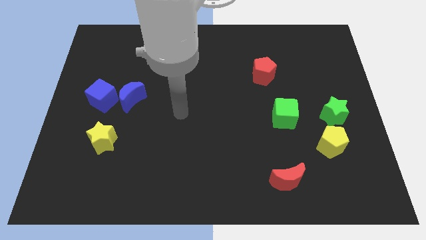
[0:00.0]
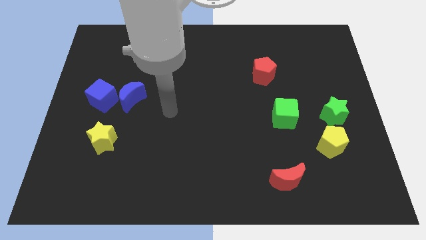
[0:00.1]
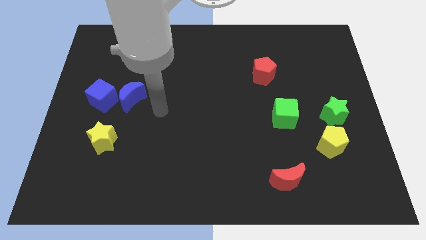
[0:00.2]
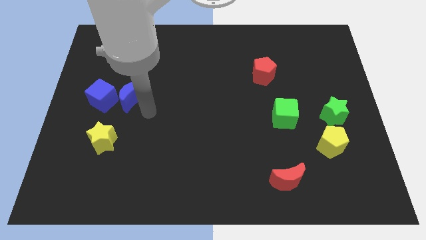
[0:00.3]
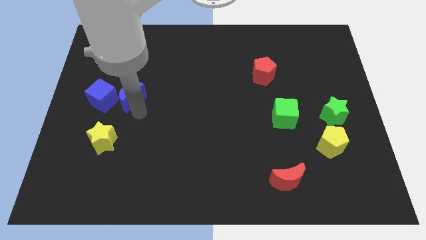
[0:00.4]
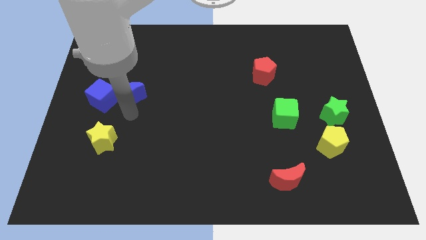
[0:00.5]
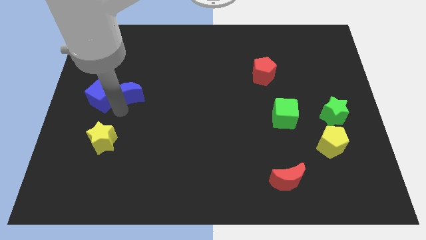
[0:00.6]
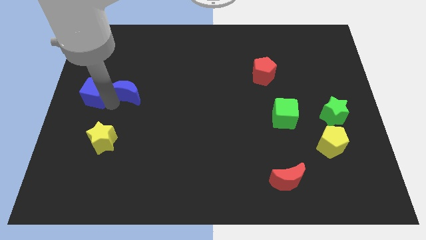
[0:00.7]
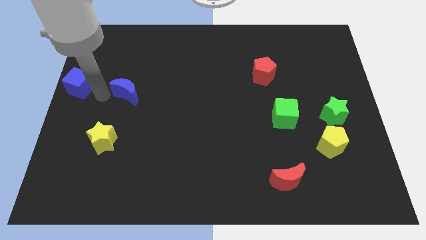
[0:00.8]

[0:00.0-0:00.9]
move the blue moon away from the blue cube

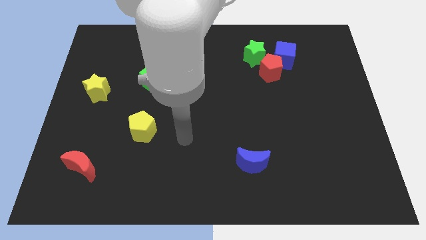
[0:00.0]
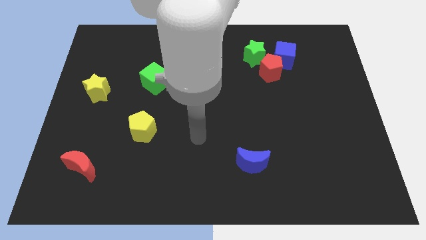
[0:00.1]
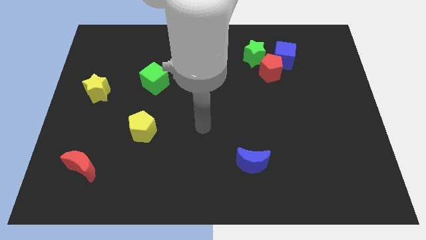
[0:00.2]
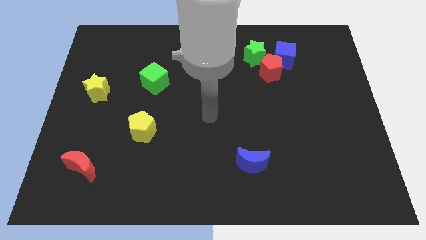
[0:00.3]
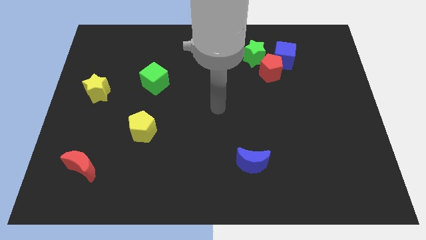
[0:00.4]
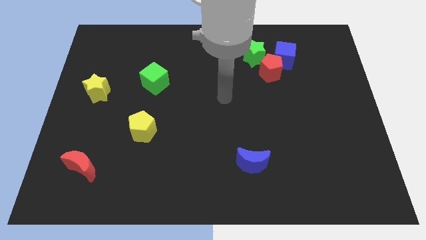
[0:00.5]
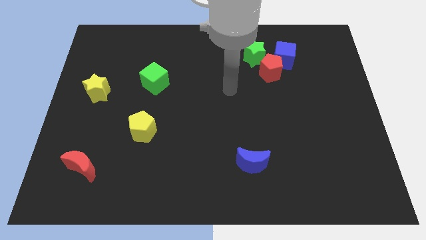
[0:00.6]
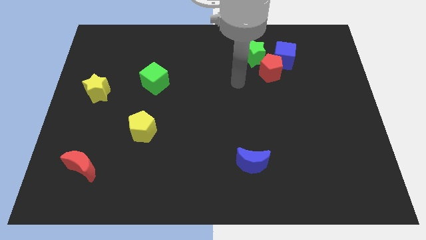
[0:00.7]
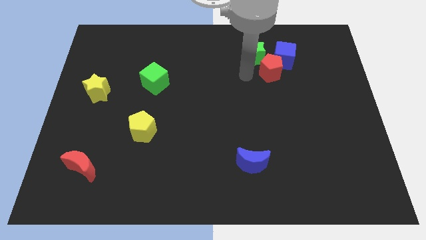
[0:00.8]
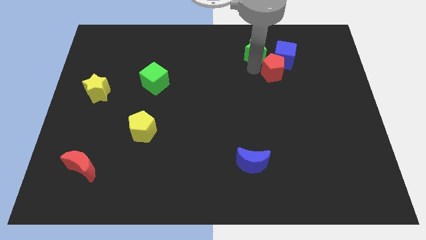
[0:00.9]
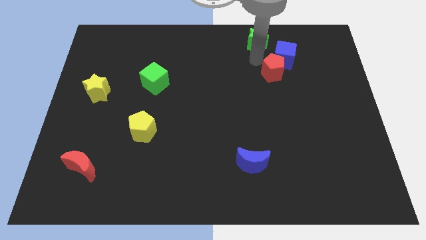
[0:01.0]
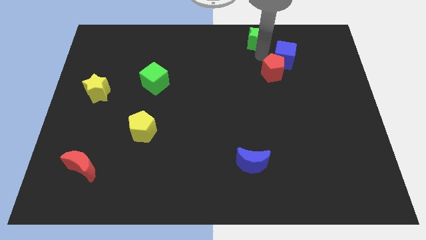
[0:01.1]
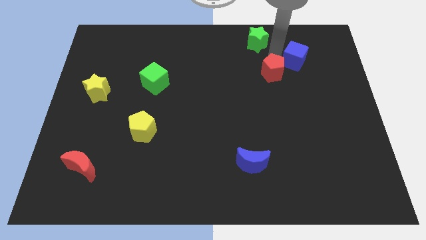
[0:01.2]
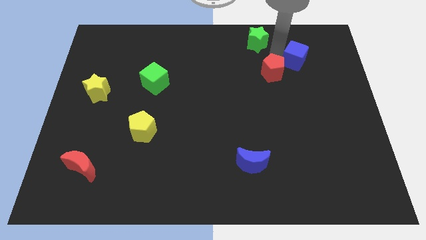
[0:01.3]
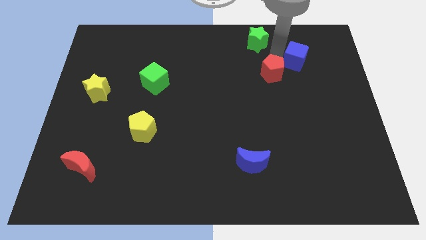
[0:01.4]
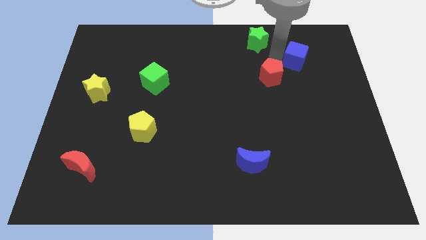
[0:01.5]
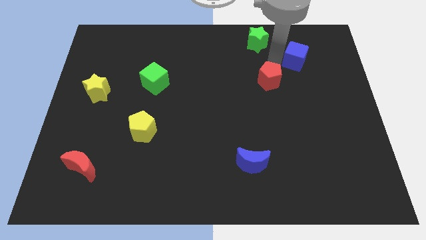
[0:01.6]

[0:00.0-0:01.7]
move the red pentagon away from the blue cube and green star

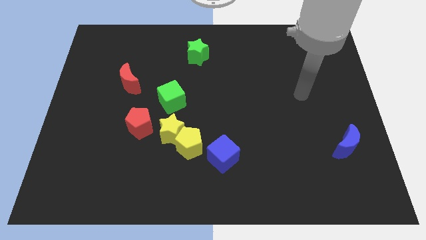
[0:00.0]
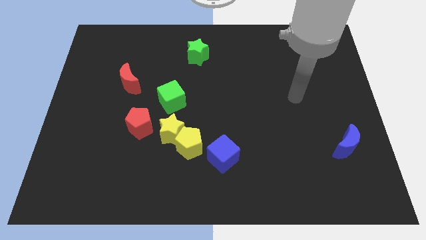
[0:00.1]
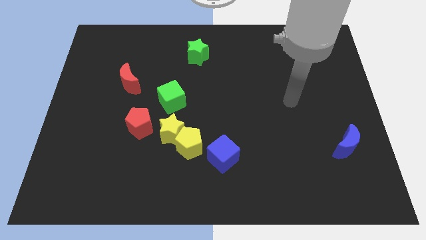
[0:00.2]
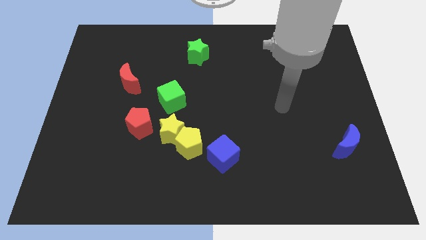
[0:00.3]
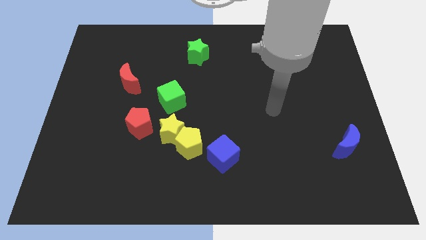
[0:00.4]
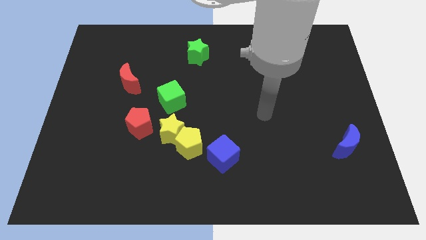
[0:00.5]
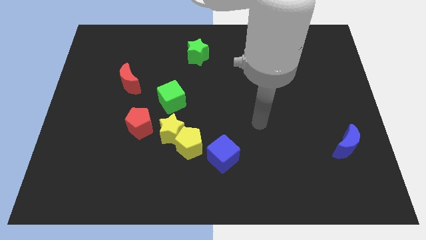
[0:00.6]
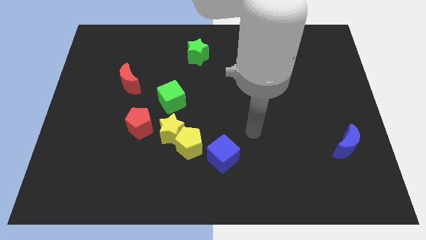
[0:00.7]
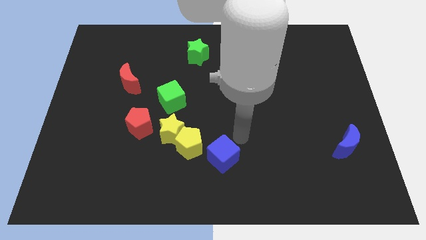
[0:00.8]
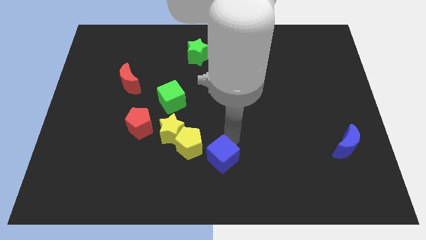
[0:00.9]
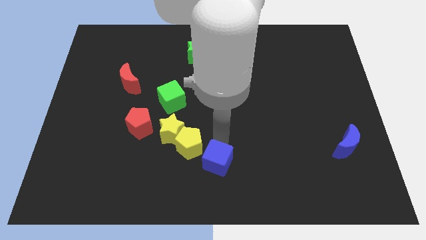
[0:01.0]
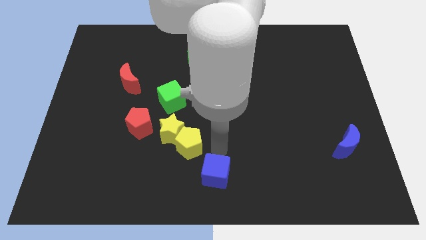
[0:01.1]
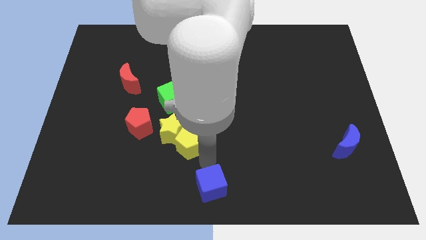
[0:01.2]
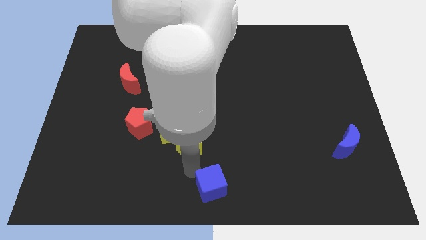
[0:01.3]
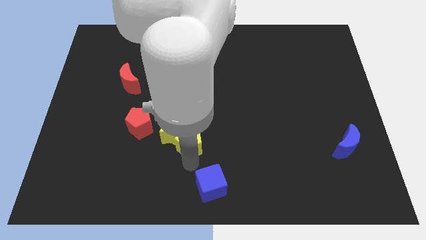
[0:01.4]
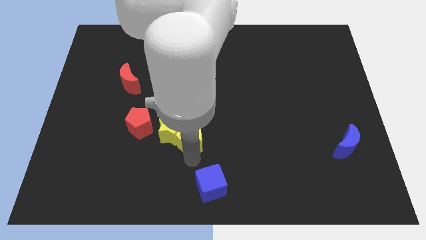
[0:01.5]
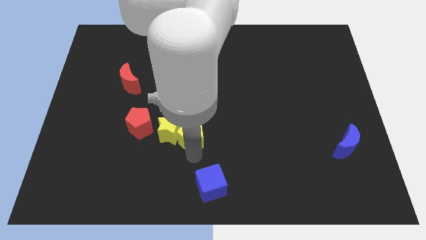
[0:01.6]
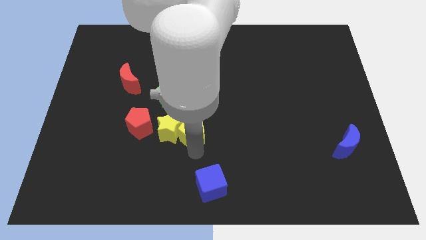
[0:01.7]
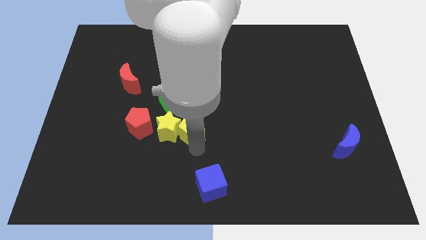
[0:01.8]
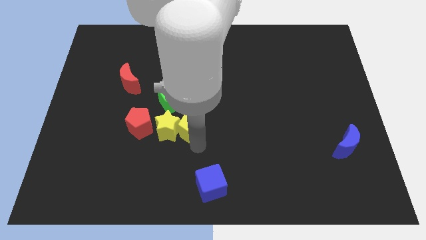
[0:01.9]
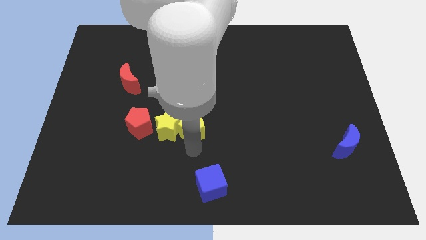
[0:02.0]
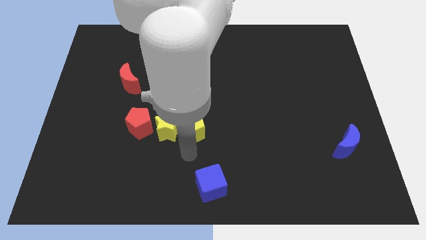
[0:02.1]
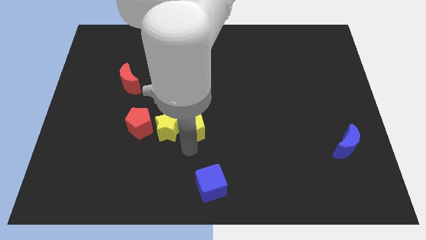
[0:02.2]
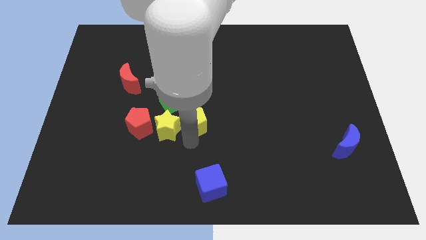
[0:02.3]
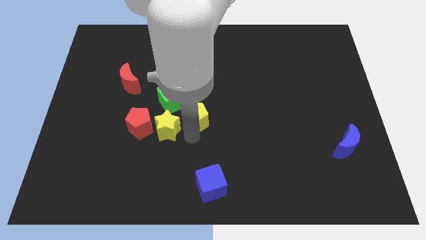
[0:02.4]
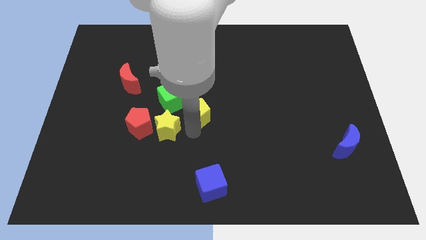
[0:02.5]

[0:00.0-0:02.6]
move the yellow pentagon away from the yellow star and blue cube

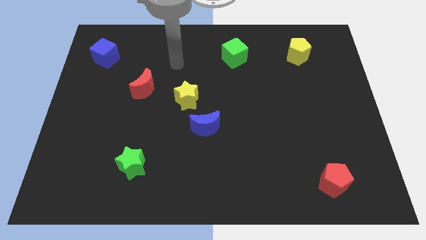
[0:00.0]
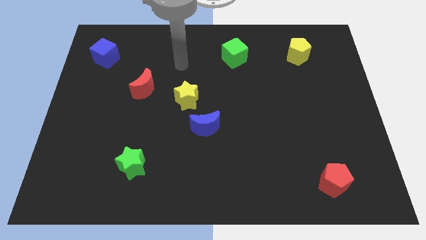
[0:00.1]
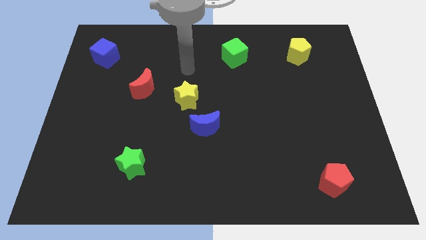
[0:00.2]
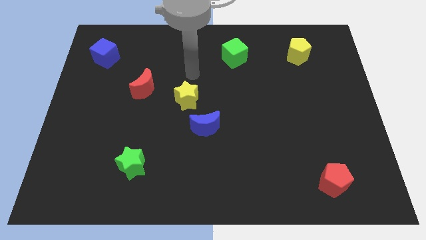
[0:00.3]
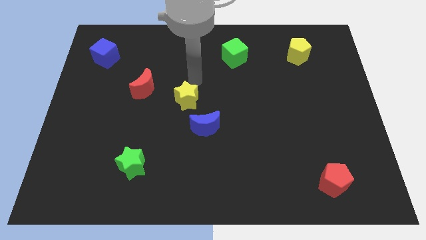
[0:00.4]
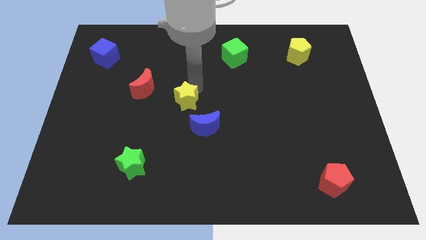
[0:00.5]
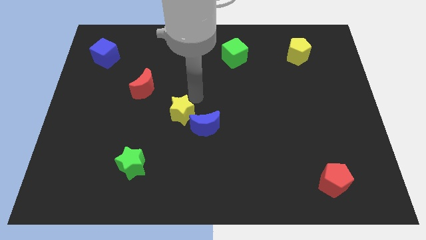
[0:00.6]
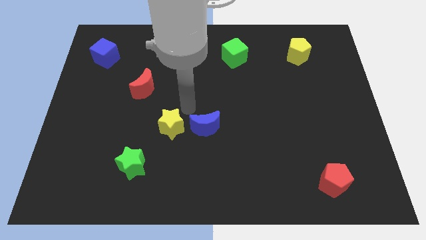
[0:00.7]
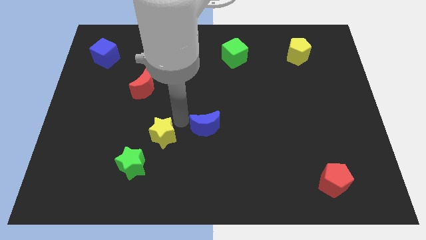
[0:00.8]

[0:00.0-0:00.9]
pull the blue moon apart from the yellow star

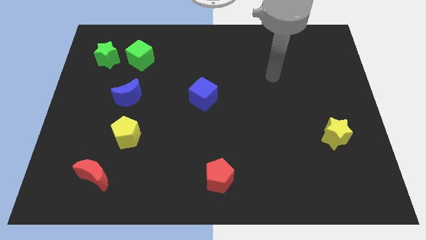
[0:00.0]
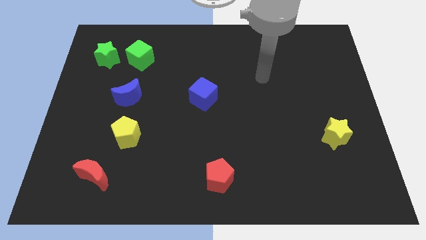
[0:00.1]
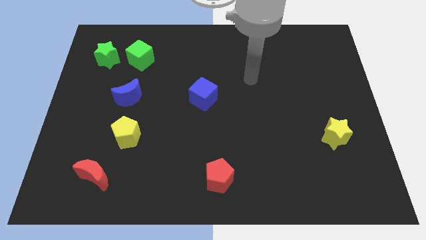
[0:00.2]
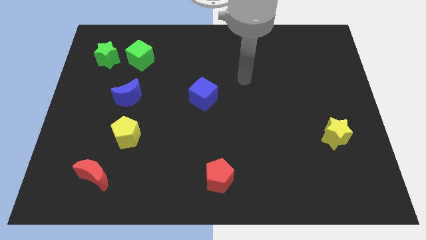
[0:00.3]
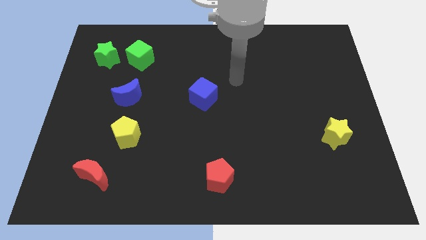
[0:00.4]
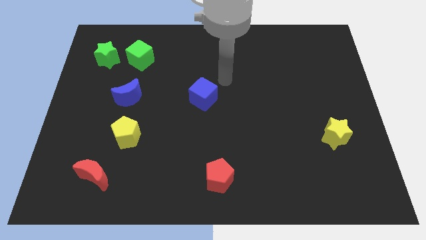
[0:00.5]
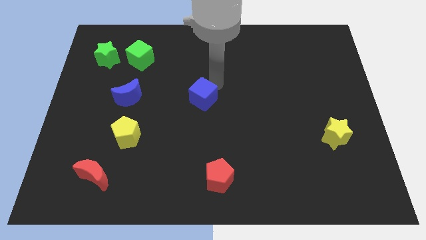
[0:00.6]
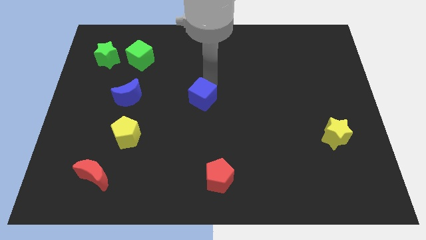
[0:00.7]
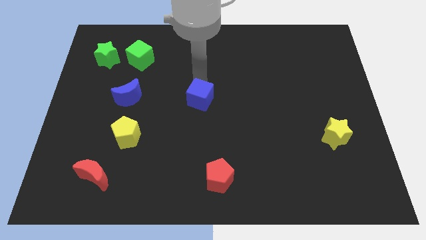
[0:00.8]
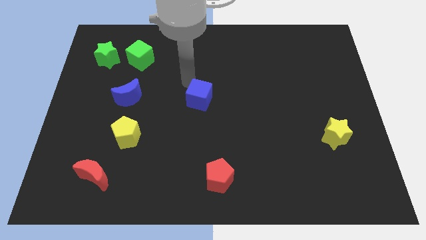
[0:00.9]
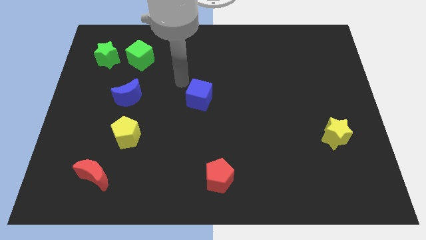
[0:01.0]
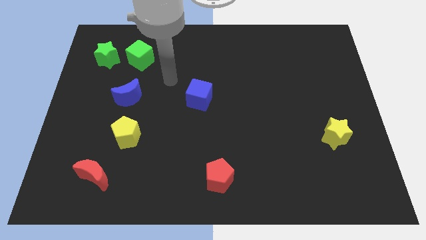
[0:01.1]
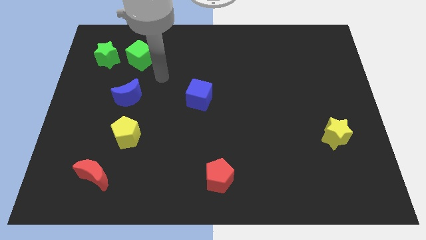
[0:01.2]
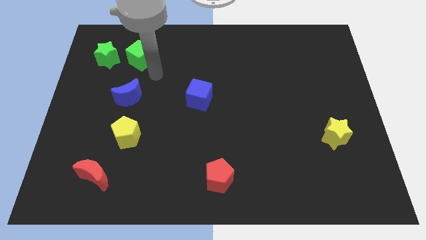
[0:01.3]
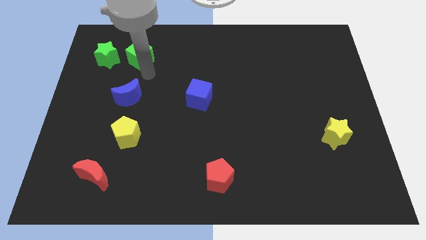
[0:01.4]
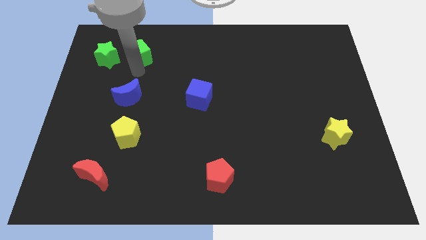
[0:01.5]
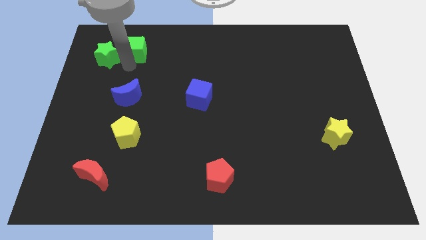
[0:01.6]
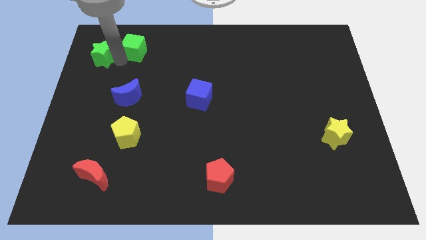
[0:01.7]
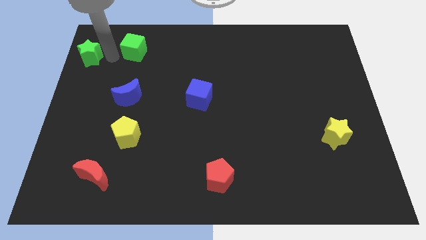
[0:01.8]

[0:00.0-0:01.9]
pull the green cube apart from the green star

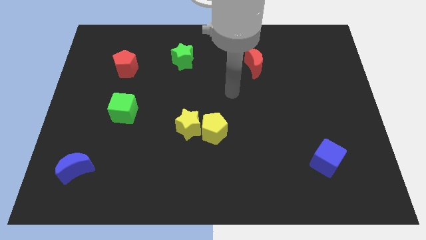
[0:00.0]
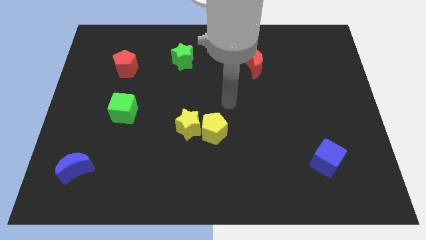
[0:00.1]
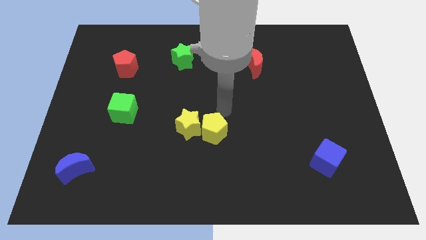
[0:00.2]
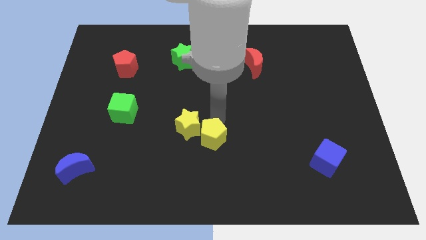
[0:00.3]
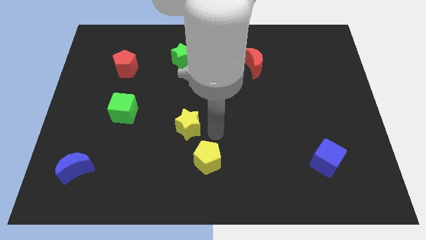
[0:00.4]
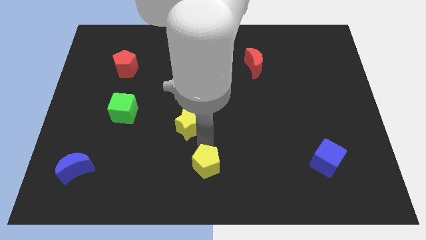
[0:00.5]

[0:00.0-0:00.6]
separate the yellow star from the yellow pentagon

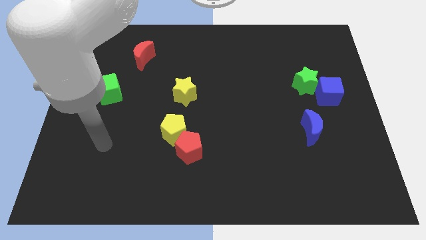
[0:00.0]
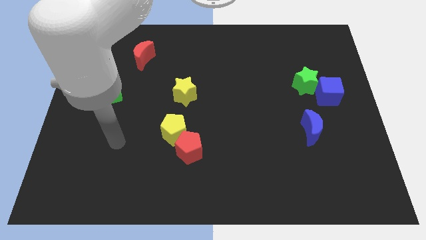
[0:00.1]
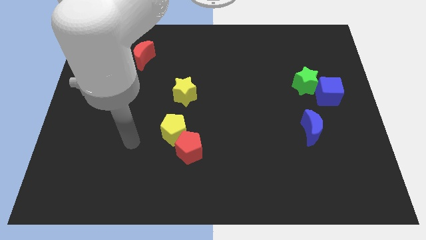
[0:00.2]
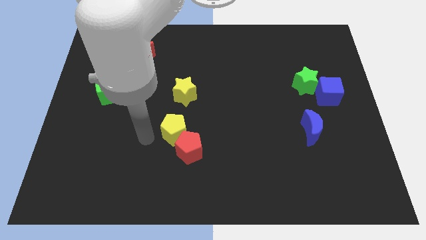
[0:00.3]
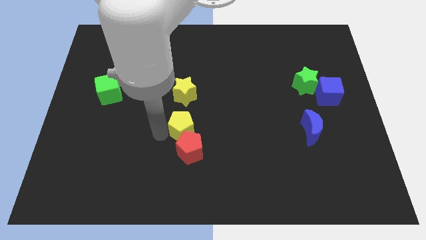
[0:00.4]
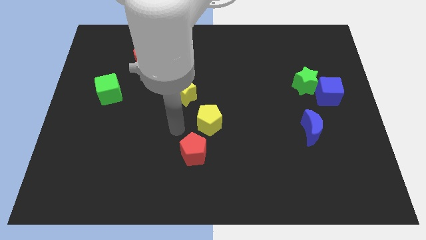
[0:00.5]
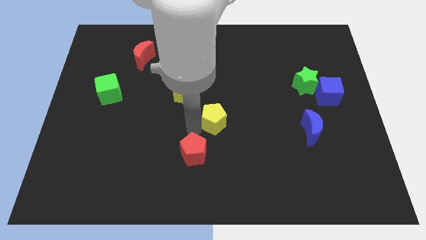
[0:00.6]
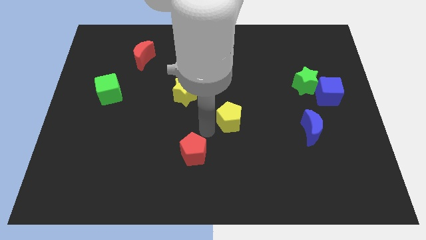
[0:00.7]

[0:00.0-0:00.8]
move the red pentagon away from the yellow pentagon
